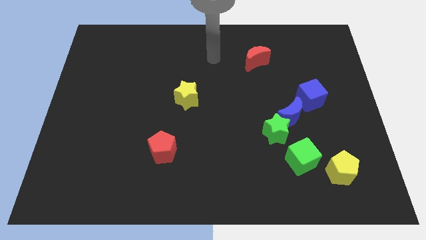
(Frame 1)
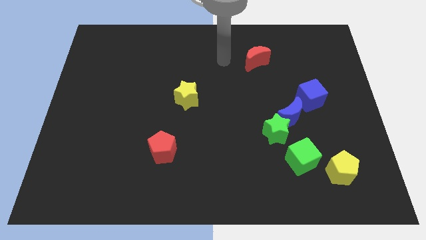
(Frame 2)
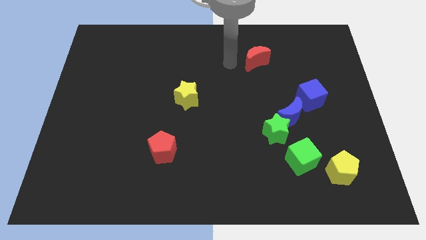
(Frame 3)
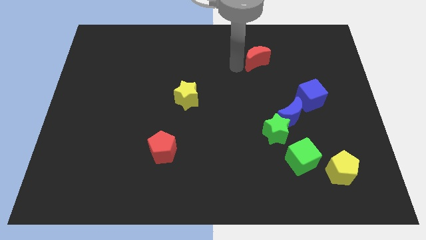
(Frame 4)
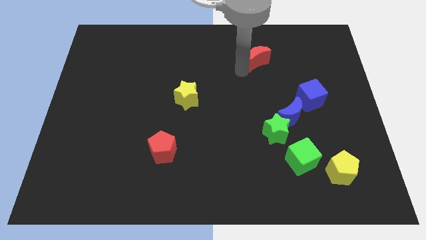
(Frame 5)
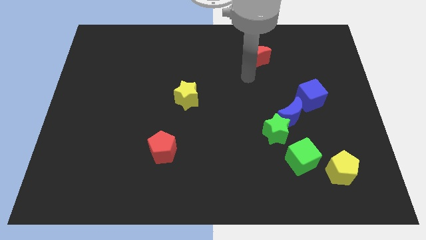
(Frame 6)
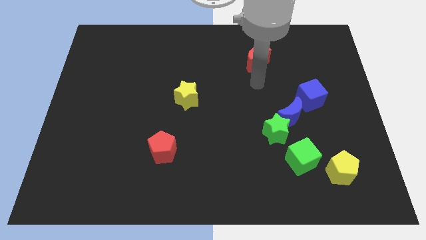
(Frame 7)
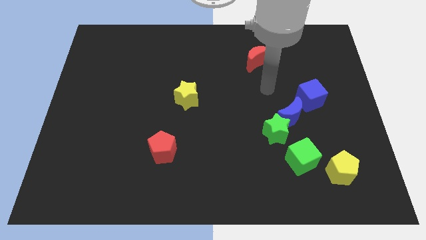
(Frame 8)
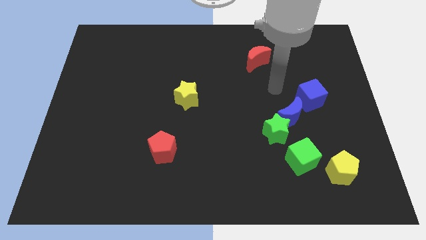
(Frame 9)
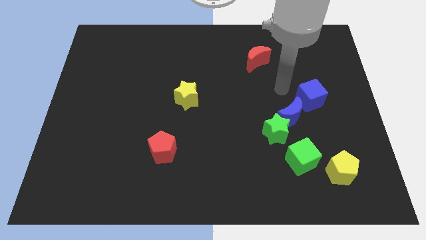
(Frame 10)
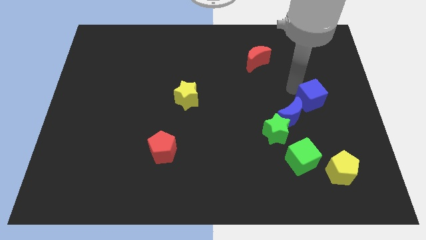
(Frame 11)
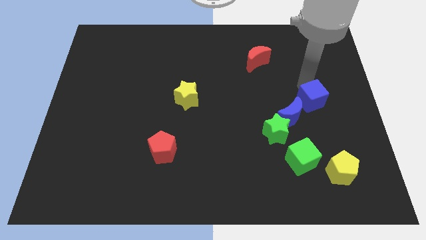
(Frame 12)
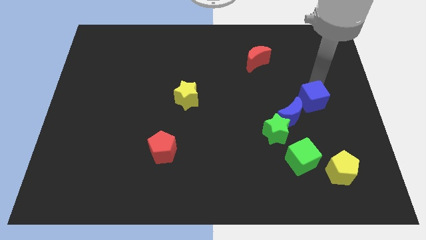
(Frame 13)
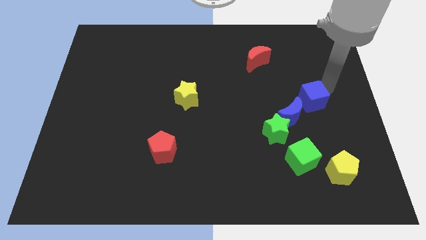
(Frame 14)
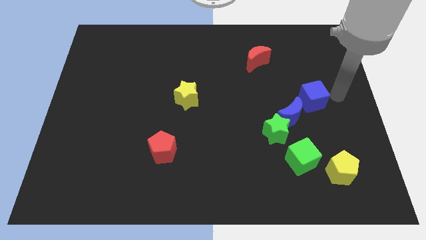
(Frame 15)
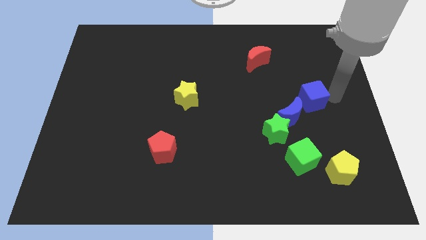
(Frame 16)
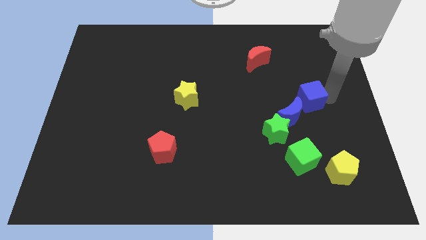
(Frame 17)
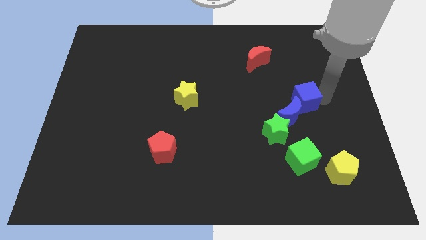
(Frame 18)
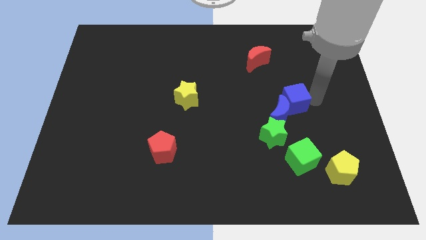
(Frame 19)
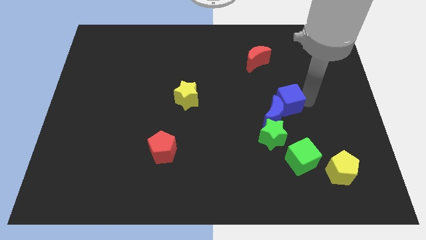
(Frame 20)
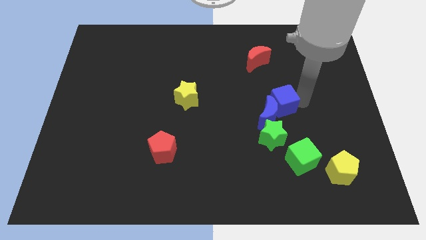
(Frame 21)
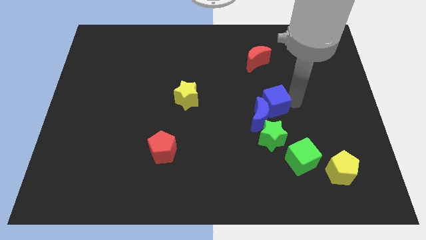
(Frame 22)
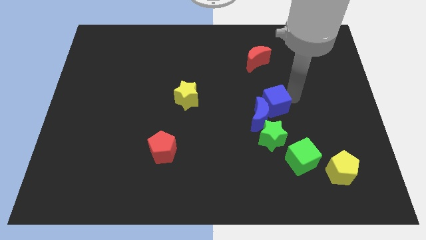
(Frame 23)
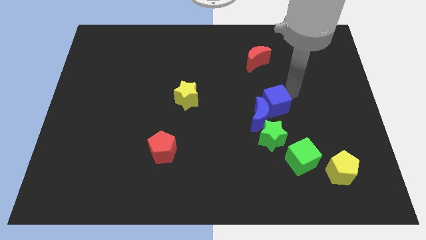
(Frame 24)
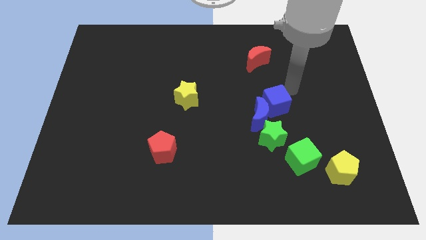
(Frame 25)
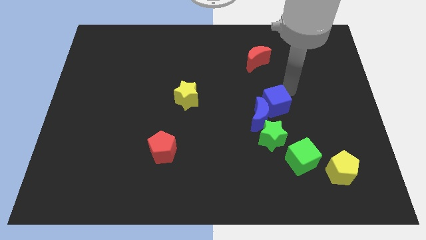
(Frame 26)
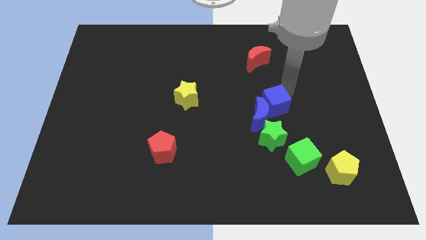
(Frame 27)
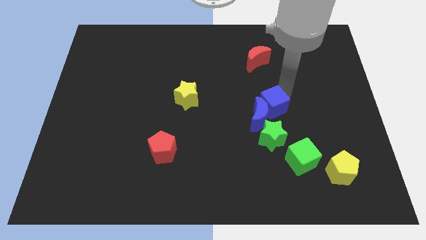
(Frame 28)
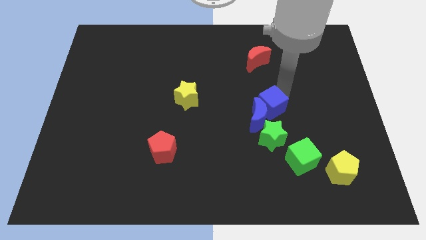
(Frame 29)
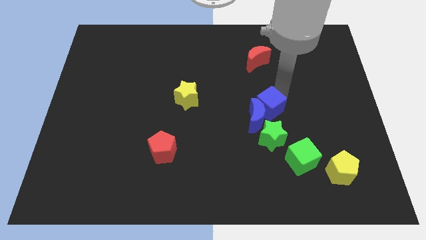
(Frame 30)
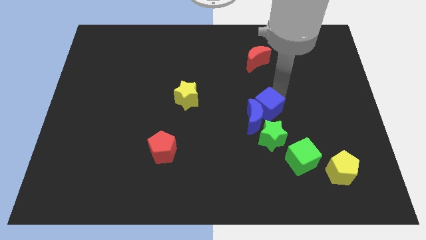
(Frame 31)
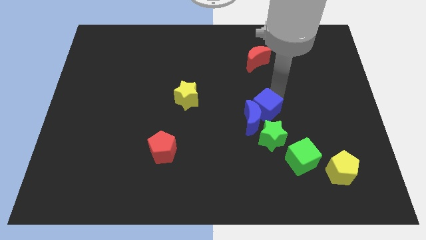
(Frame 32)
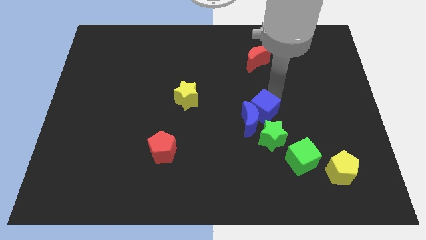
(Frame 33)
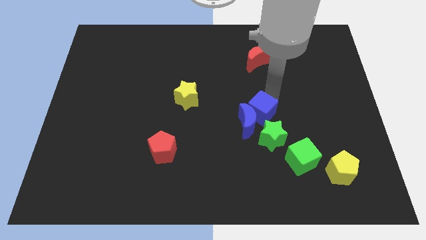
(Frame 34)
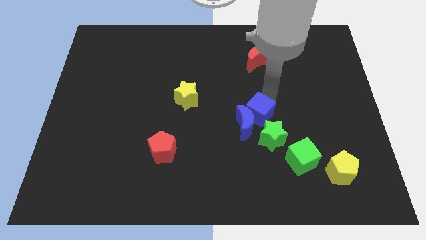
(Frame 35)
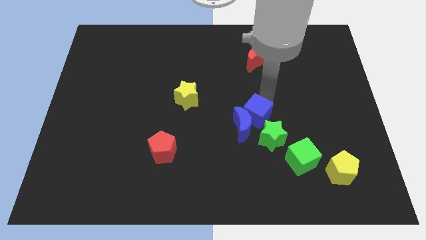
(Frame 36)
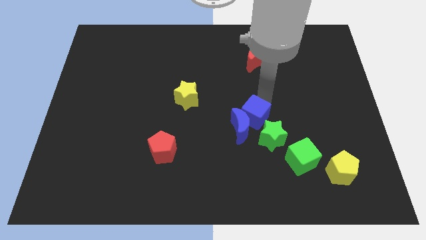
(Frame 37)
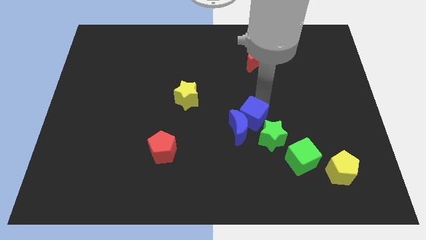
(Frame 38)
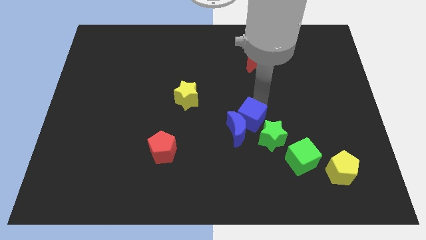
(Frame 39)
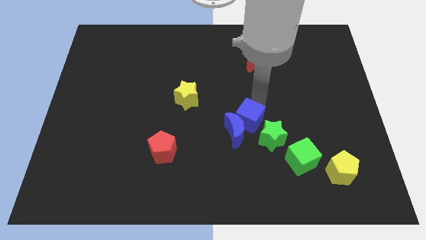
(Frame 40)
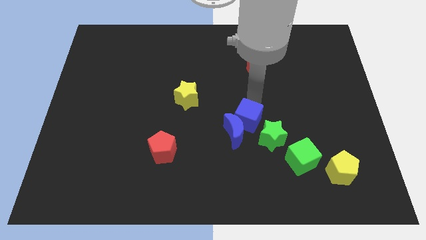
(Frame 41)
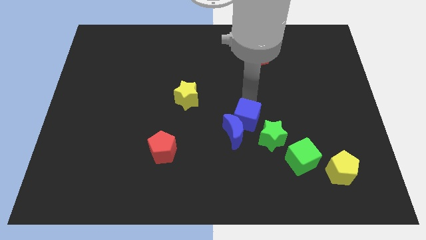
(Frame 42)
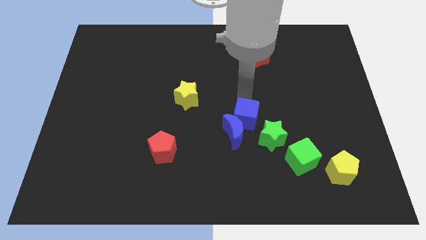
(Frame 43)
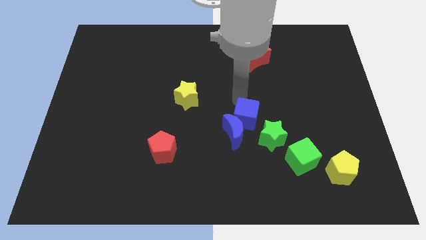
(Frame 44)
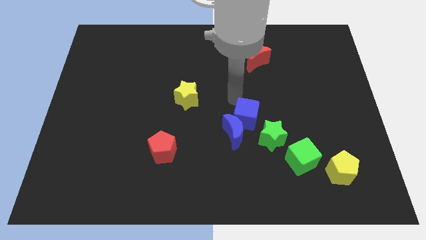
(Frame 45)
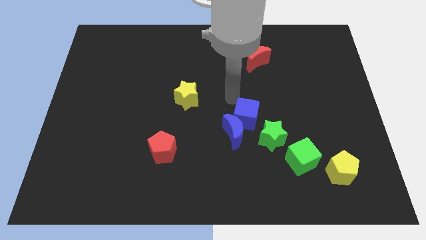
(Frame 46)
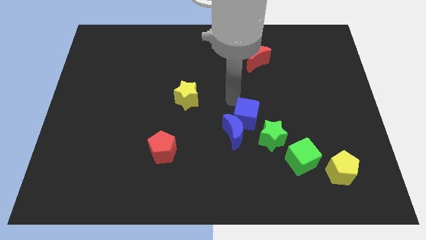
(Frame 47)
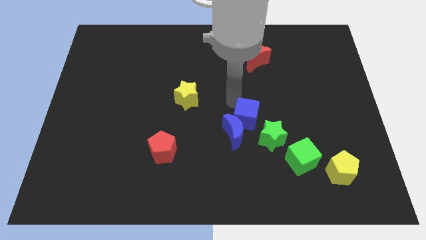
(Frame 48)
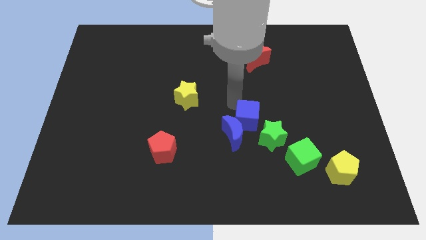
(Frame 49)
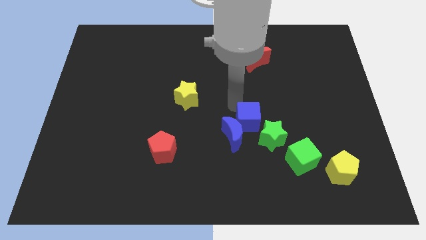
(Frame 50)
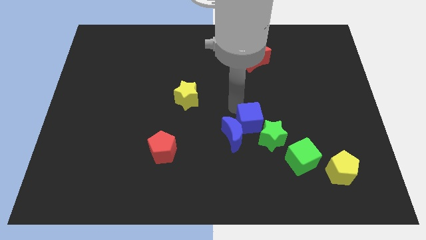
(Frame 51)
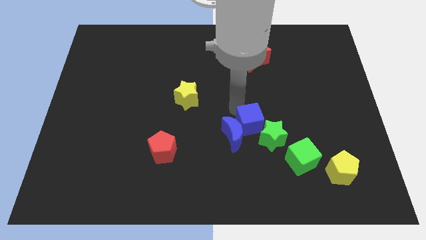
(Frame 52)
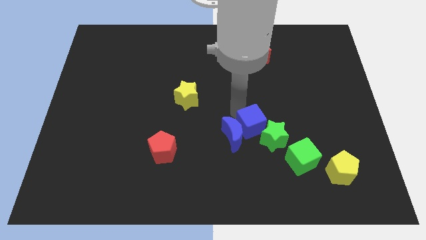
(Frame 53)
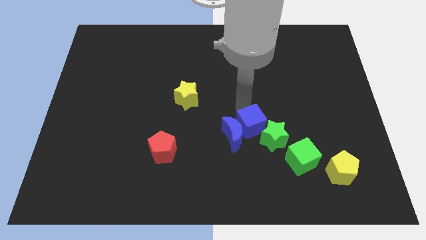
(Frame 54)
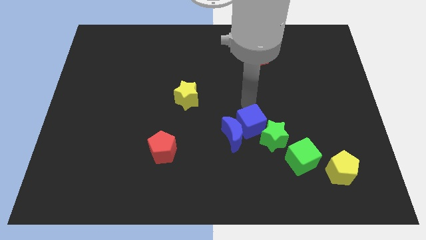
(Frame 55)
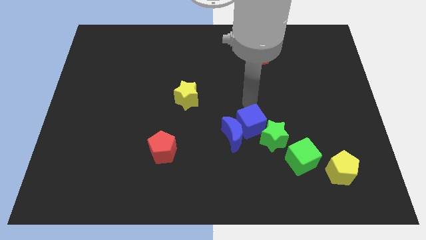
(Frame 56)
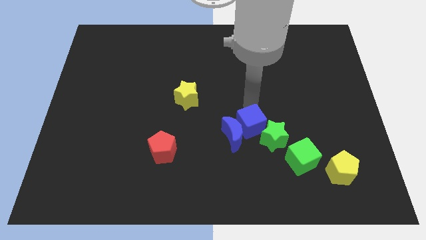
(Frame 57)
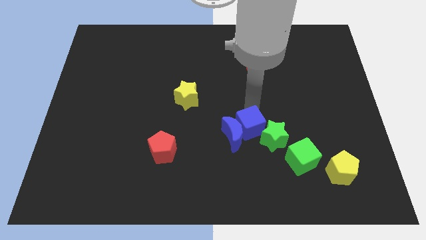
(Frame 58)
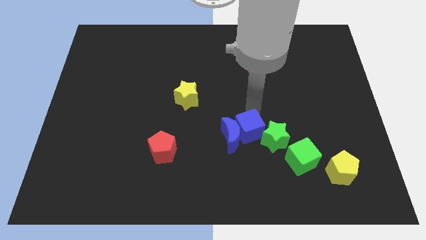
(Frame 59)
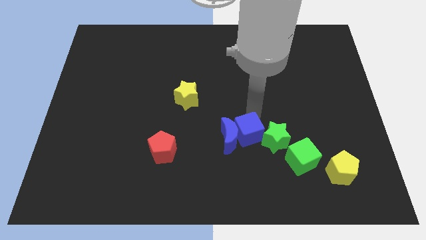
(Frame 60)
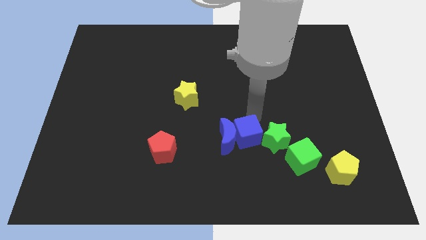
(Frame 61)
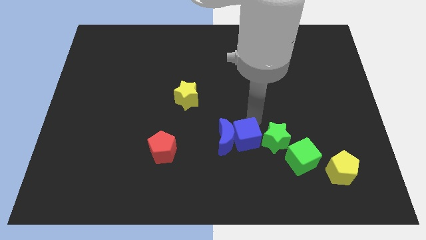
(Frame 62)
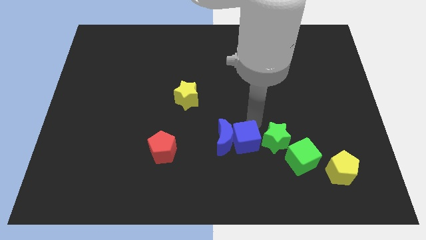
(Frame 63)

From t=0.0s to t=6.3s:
move the blue cube to the left side of the green cube
